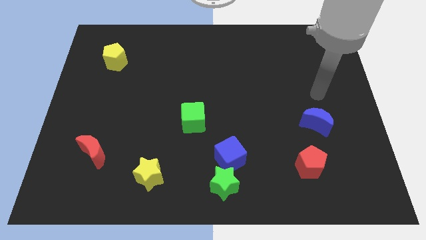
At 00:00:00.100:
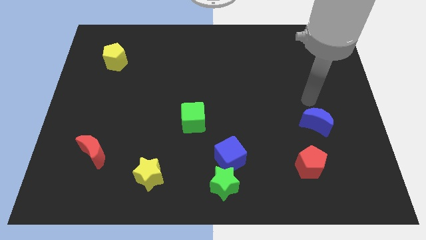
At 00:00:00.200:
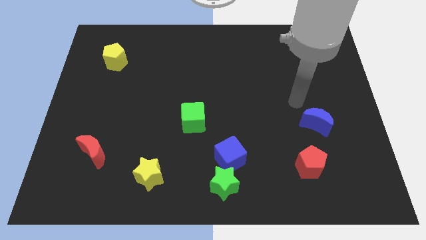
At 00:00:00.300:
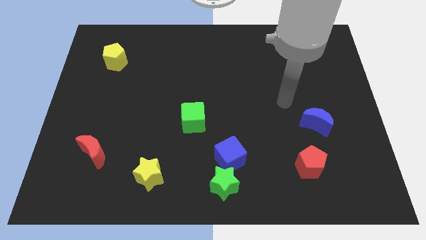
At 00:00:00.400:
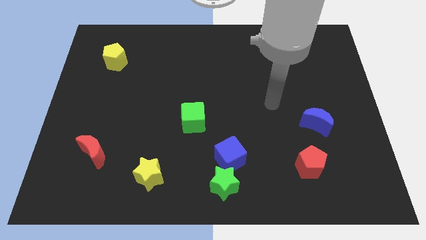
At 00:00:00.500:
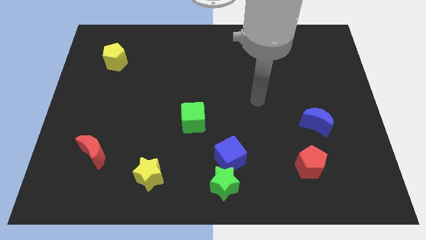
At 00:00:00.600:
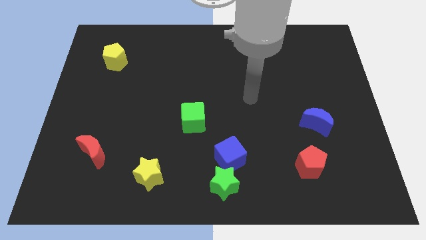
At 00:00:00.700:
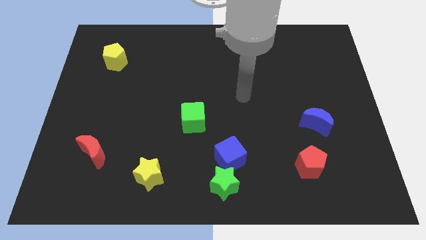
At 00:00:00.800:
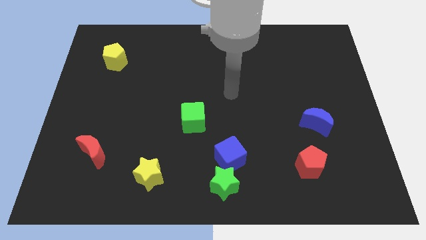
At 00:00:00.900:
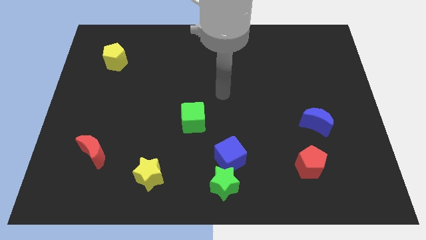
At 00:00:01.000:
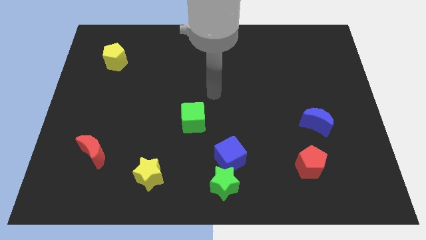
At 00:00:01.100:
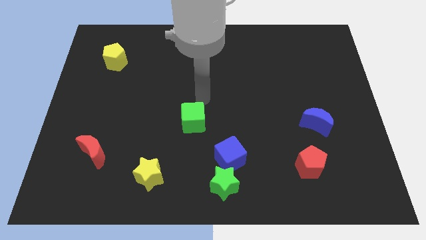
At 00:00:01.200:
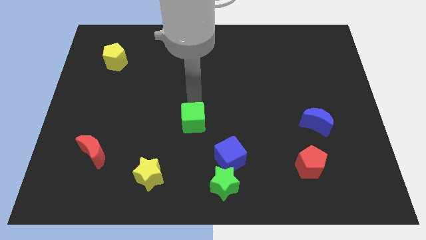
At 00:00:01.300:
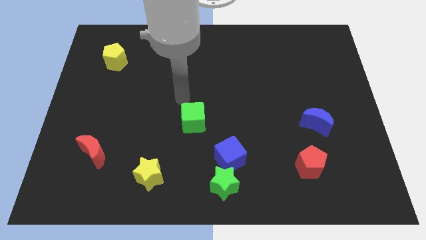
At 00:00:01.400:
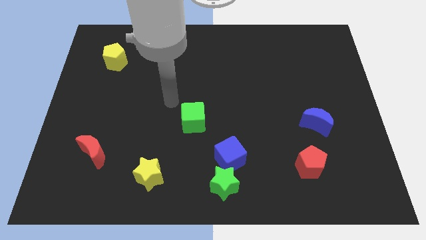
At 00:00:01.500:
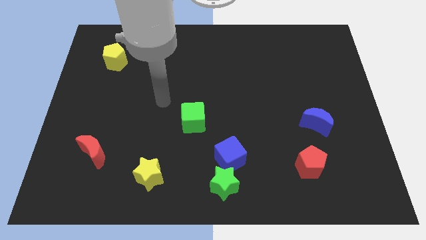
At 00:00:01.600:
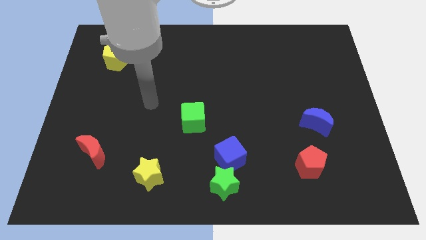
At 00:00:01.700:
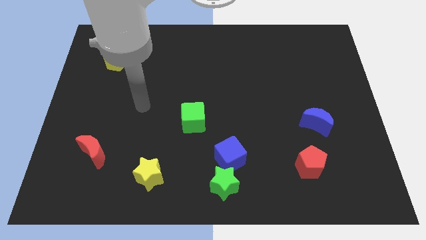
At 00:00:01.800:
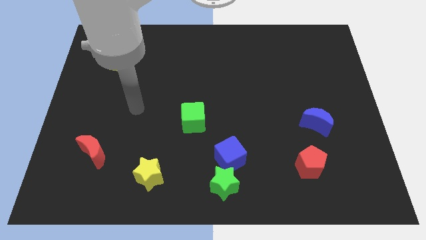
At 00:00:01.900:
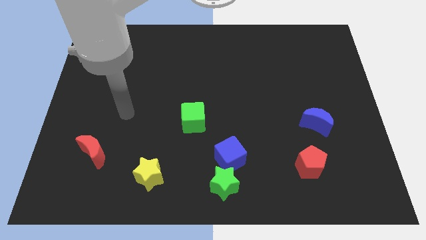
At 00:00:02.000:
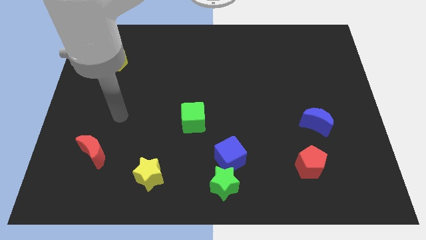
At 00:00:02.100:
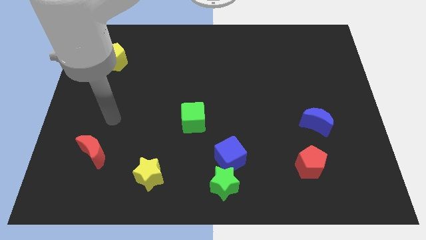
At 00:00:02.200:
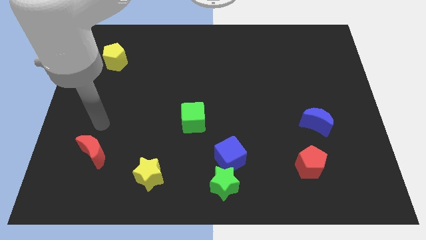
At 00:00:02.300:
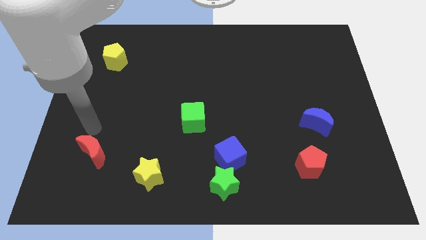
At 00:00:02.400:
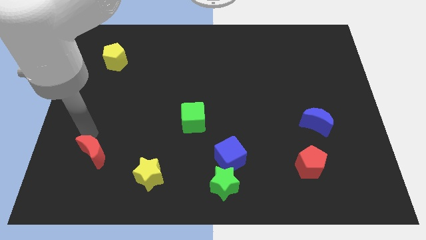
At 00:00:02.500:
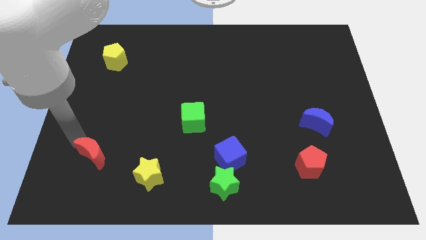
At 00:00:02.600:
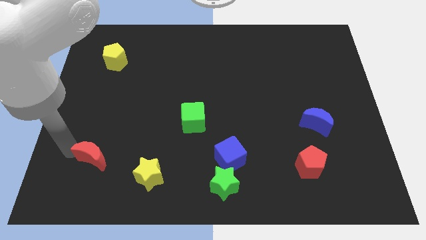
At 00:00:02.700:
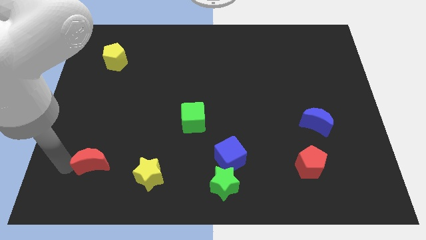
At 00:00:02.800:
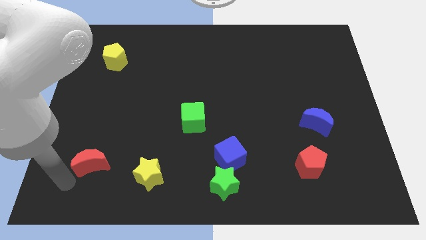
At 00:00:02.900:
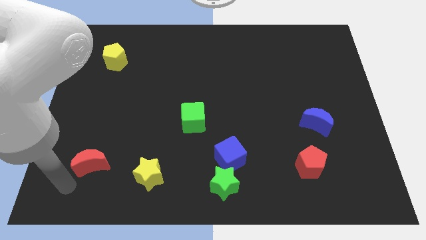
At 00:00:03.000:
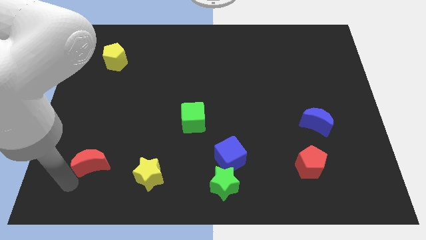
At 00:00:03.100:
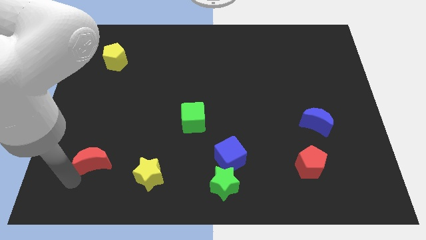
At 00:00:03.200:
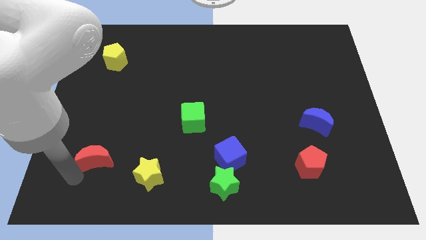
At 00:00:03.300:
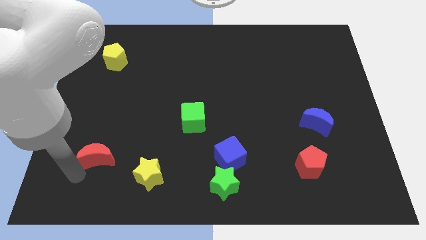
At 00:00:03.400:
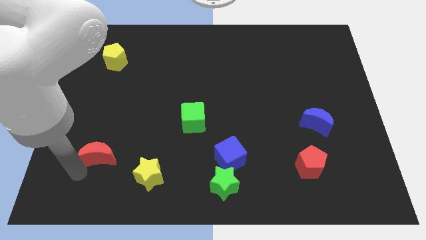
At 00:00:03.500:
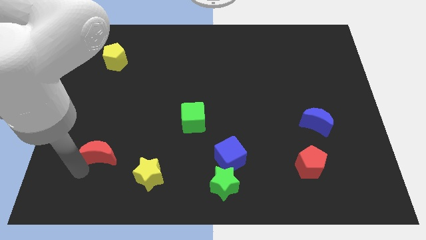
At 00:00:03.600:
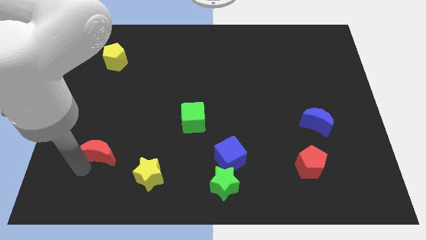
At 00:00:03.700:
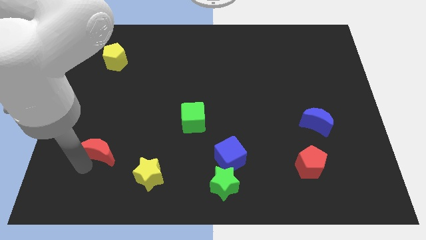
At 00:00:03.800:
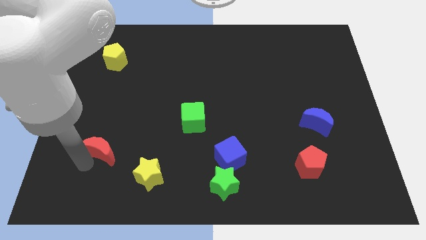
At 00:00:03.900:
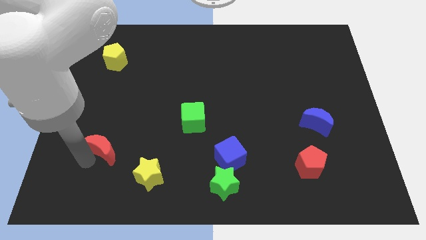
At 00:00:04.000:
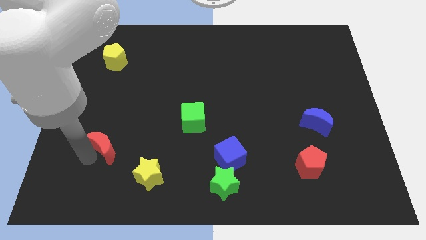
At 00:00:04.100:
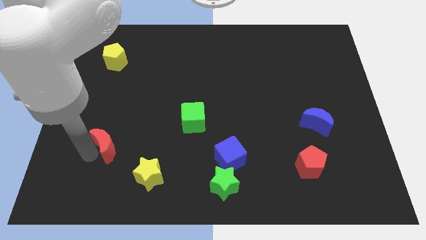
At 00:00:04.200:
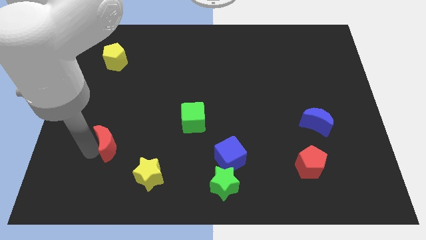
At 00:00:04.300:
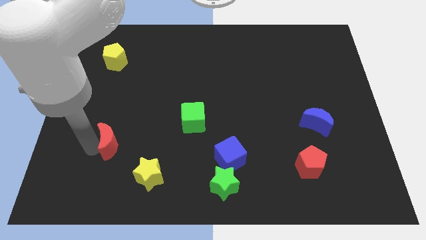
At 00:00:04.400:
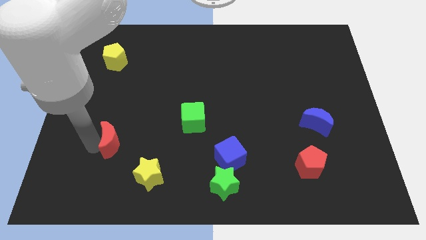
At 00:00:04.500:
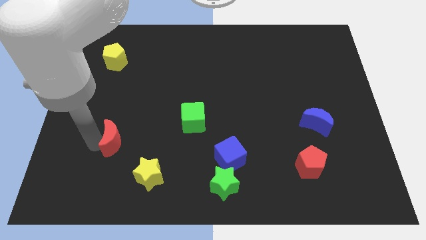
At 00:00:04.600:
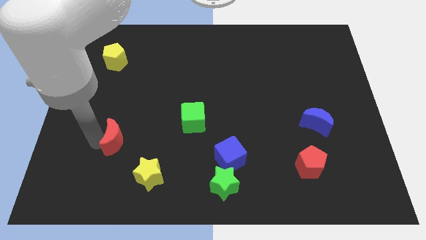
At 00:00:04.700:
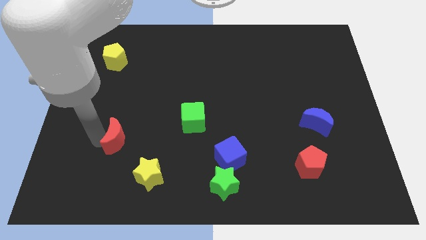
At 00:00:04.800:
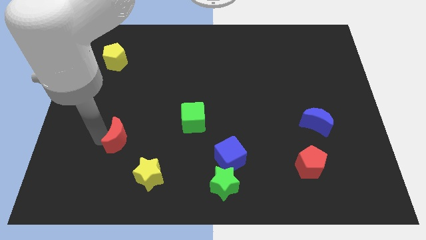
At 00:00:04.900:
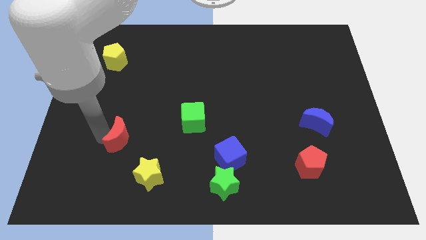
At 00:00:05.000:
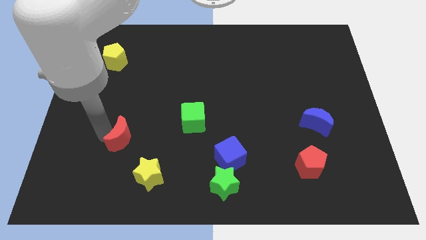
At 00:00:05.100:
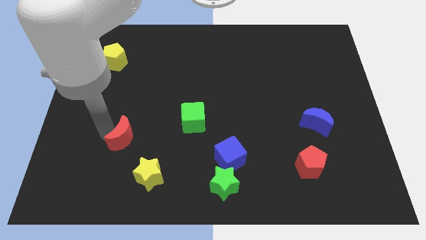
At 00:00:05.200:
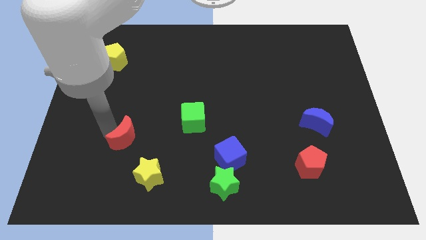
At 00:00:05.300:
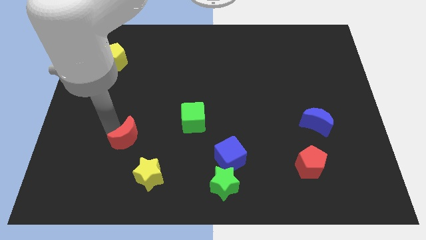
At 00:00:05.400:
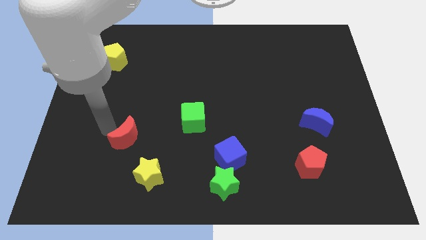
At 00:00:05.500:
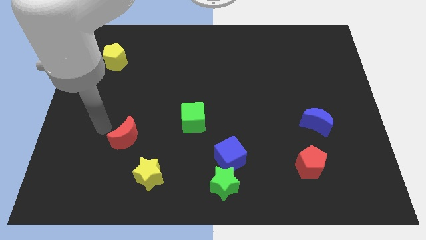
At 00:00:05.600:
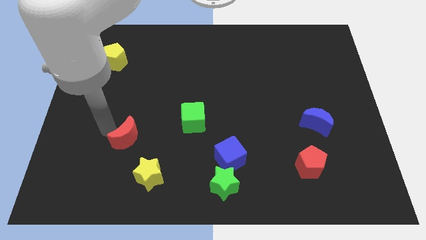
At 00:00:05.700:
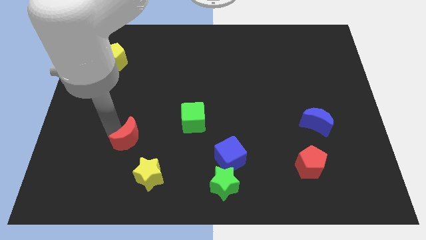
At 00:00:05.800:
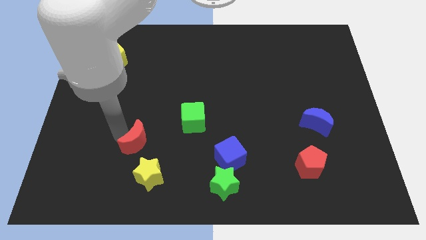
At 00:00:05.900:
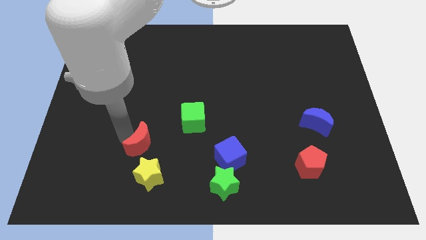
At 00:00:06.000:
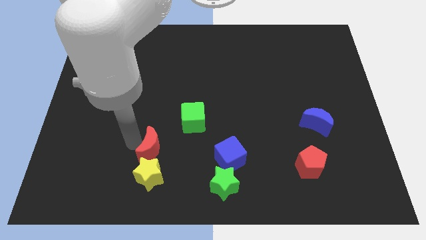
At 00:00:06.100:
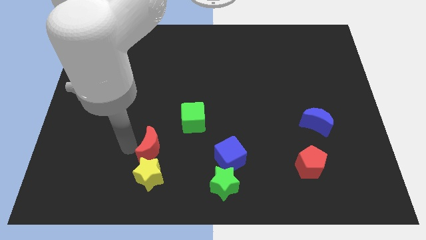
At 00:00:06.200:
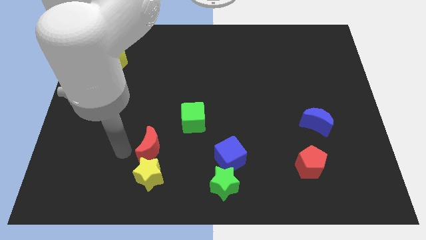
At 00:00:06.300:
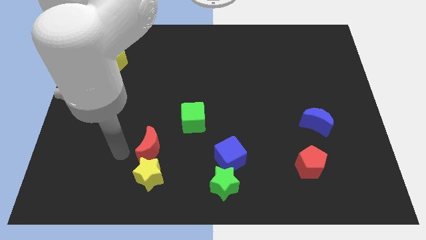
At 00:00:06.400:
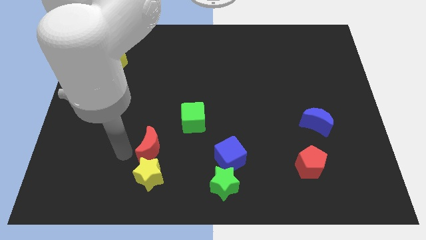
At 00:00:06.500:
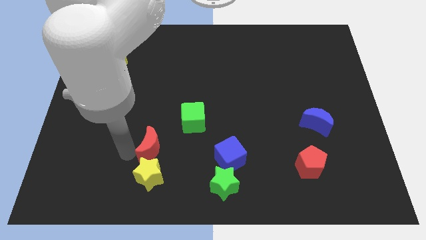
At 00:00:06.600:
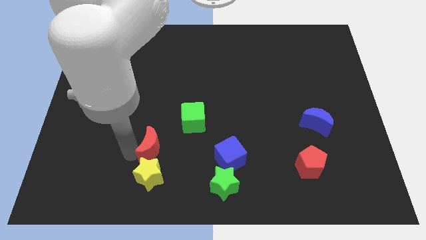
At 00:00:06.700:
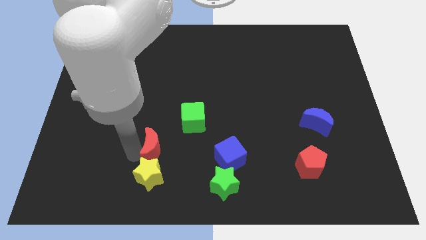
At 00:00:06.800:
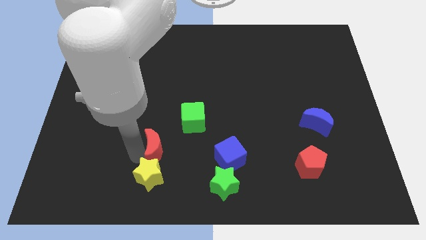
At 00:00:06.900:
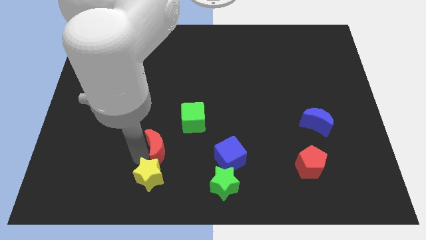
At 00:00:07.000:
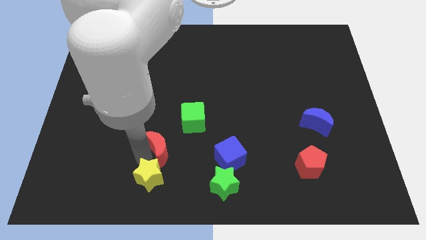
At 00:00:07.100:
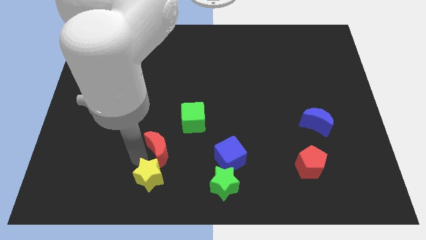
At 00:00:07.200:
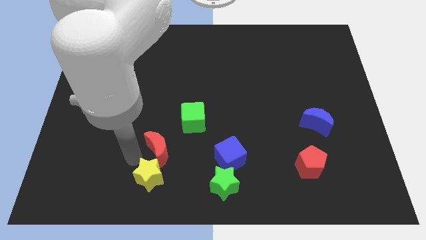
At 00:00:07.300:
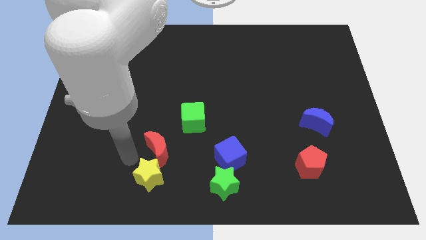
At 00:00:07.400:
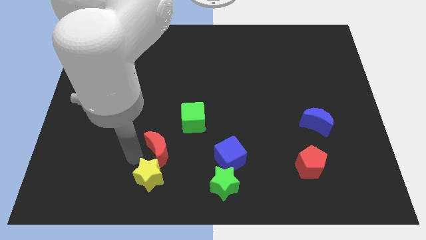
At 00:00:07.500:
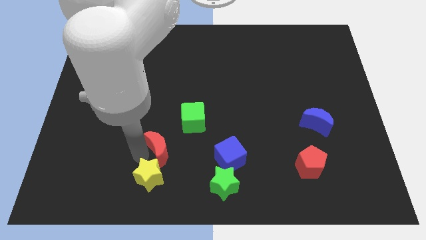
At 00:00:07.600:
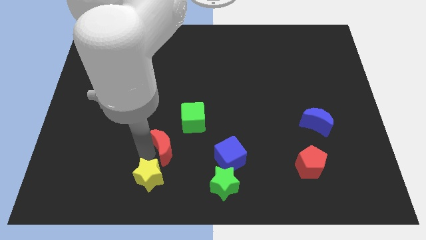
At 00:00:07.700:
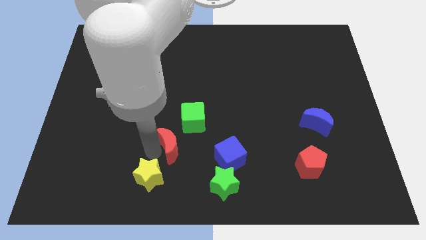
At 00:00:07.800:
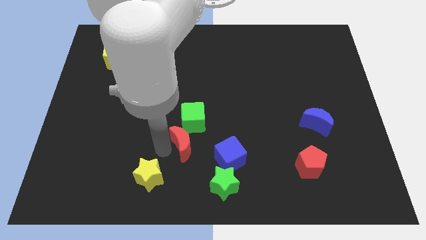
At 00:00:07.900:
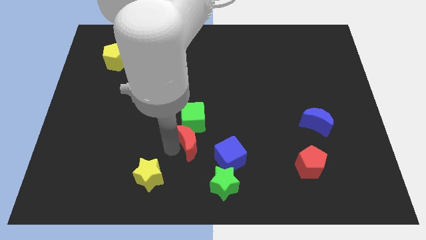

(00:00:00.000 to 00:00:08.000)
put the red moon to the top left of the blue cube
